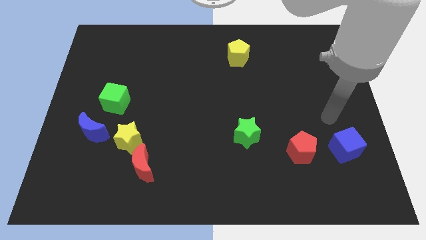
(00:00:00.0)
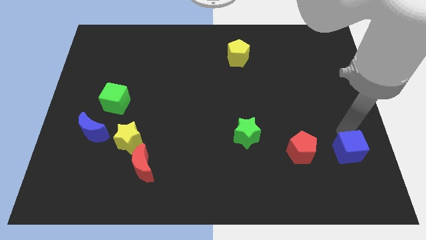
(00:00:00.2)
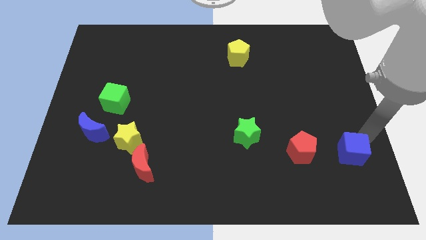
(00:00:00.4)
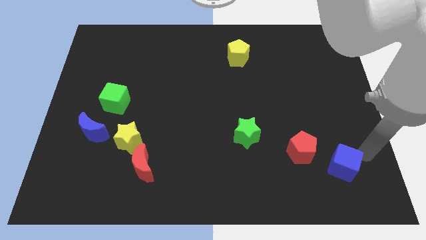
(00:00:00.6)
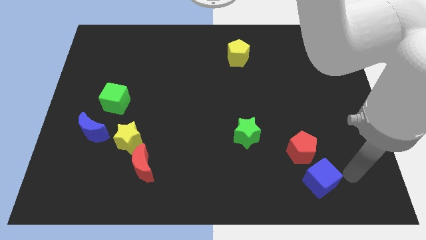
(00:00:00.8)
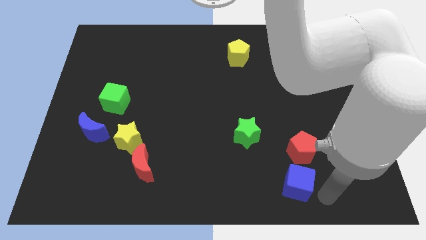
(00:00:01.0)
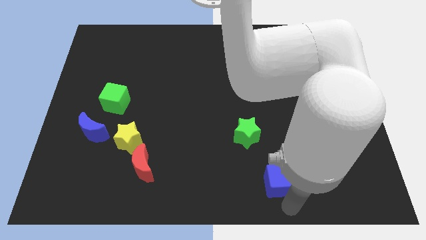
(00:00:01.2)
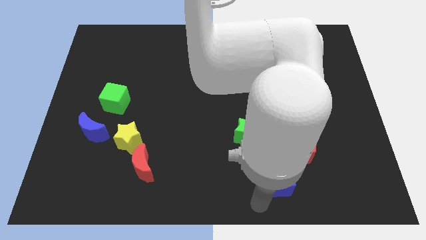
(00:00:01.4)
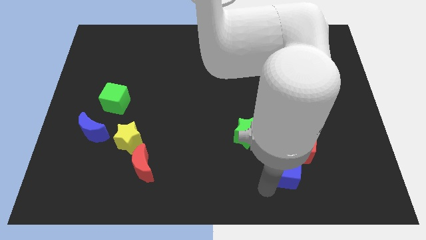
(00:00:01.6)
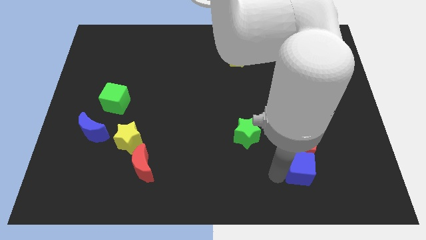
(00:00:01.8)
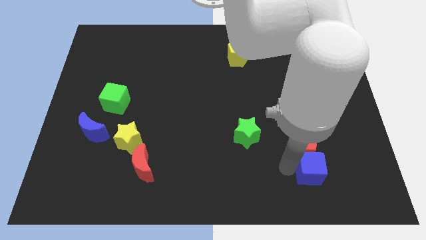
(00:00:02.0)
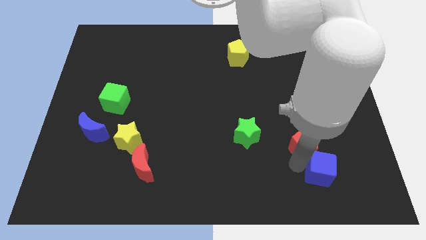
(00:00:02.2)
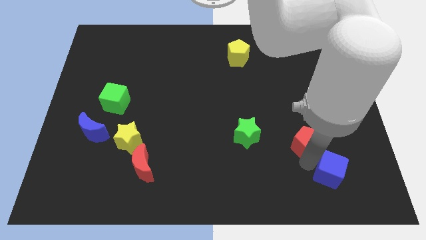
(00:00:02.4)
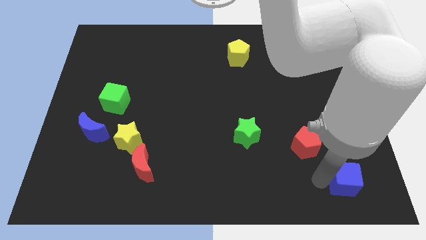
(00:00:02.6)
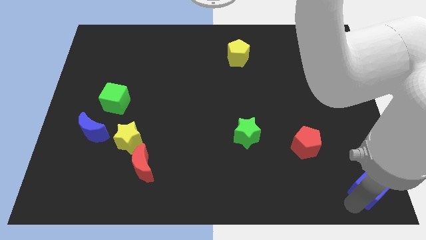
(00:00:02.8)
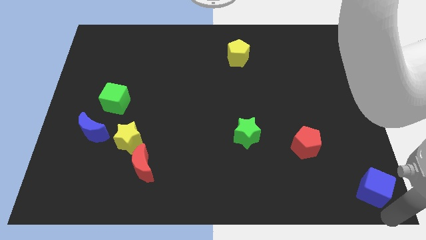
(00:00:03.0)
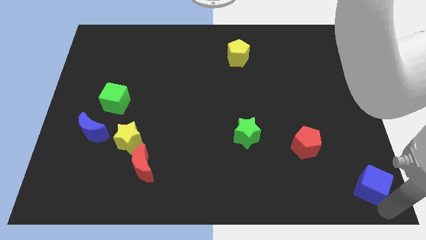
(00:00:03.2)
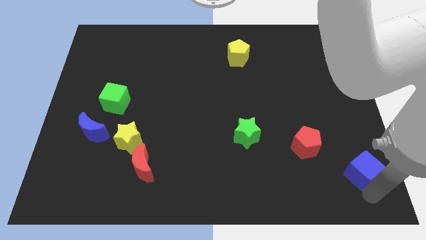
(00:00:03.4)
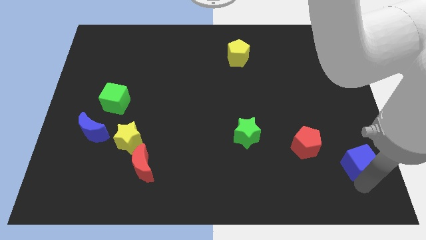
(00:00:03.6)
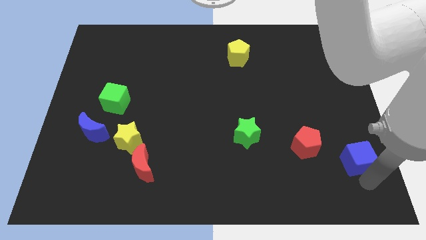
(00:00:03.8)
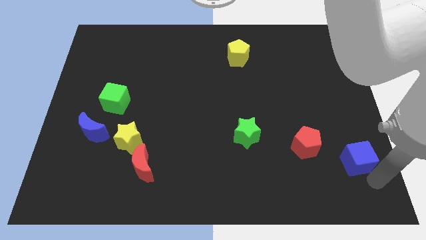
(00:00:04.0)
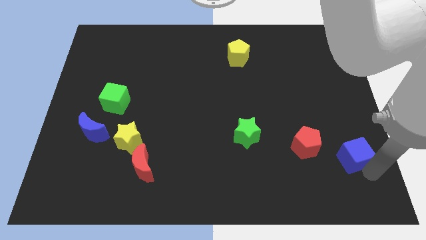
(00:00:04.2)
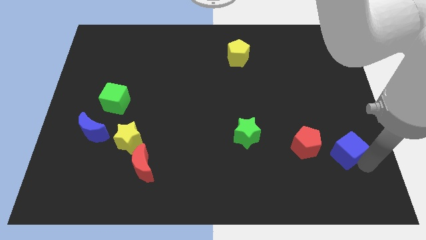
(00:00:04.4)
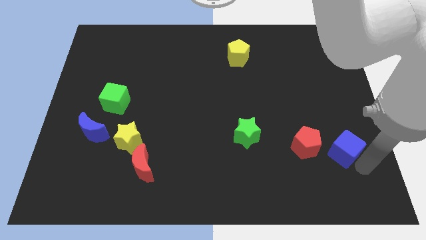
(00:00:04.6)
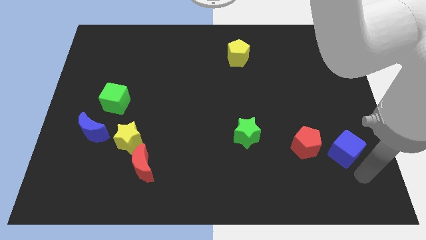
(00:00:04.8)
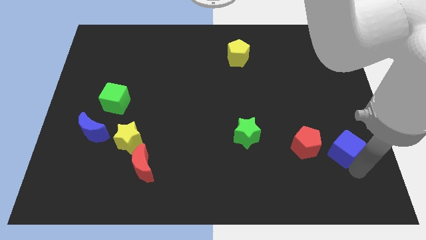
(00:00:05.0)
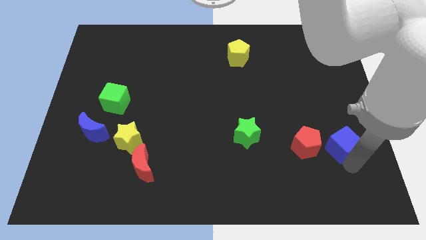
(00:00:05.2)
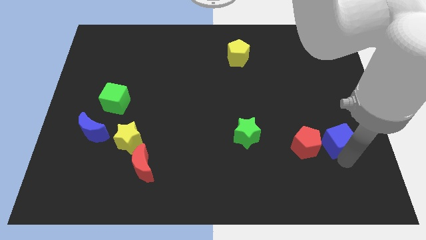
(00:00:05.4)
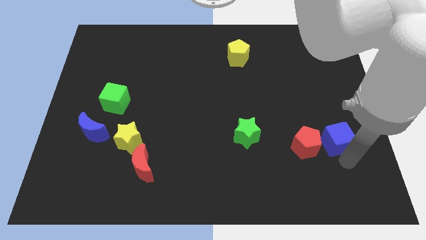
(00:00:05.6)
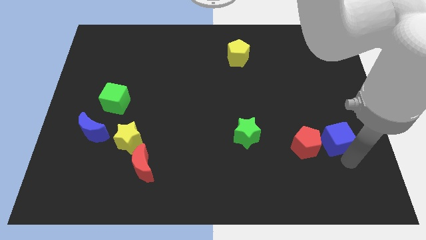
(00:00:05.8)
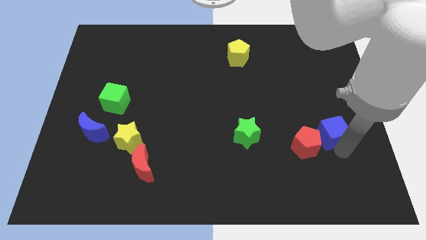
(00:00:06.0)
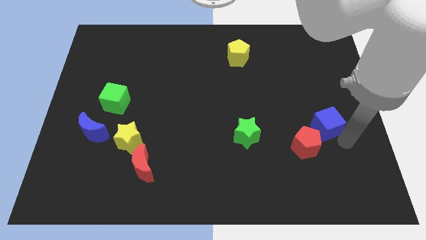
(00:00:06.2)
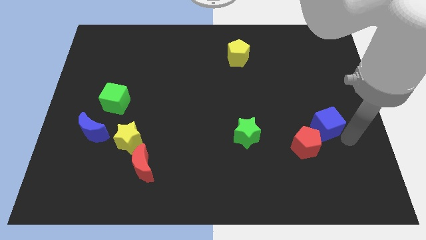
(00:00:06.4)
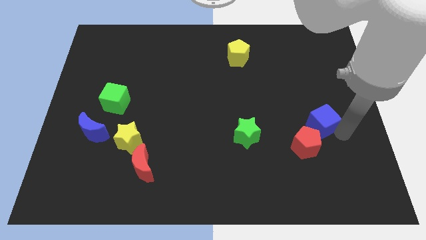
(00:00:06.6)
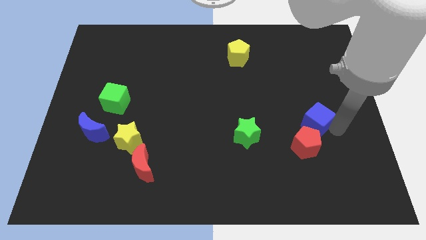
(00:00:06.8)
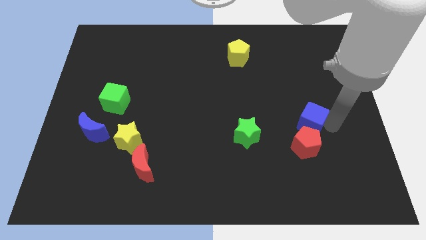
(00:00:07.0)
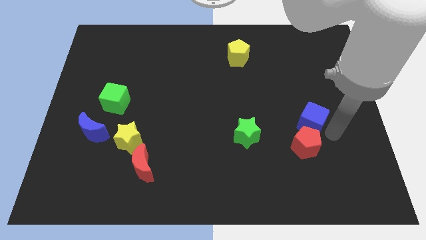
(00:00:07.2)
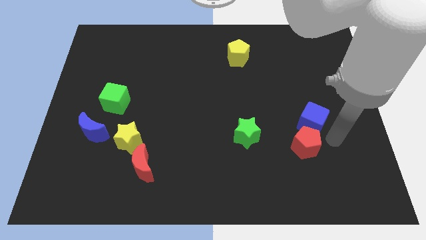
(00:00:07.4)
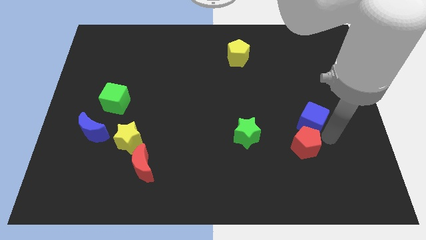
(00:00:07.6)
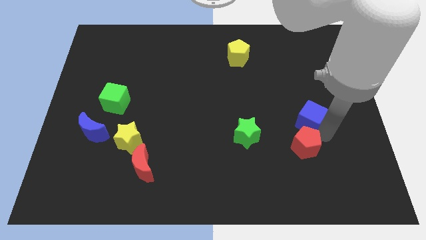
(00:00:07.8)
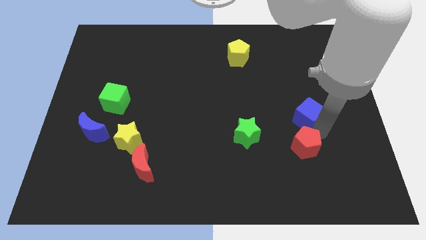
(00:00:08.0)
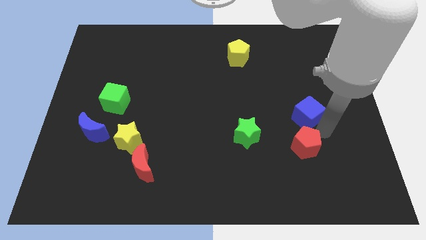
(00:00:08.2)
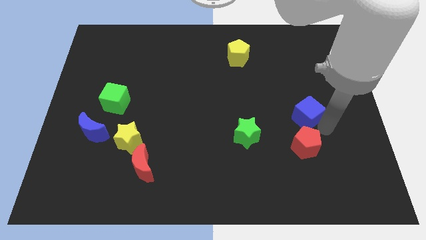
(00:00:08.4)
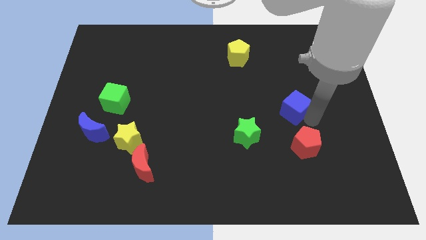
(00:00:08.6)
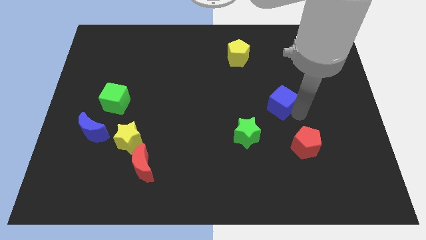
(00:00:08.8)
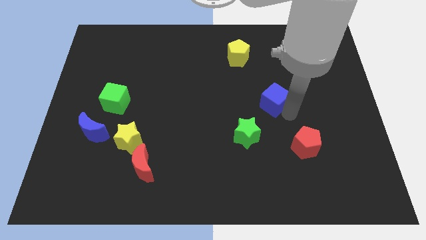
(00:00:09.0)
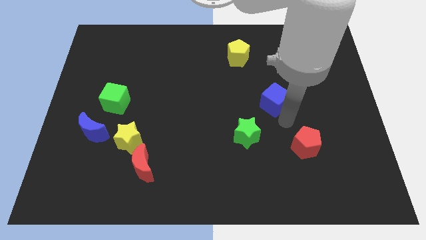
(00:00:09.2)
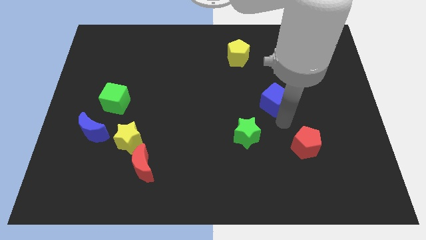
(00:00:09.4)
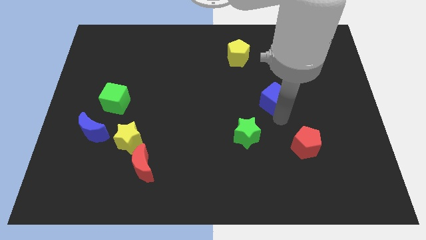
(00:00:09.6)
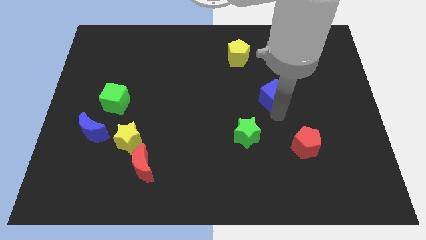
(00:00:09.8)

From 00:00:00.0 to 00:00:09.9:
slide the blue cube up and left diagonally

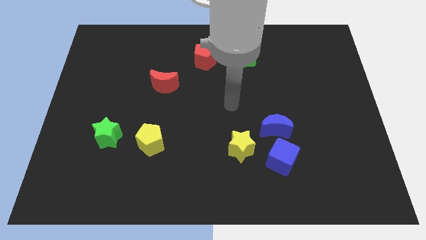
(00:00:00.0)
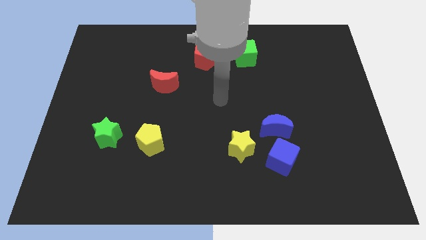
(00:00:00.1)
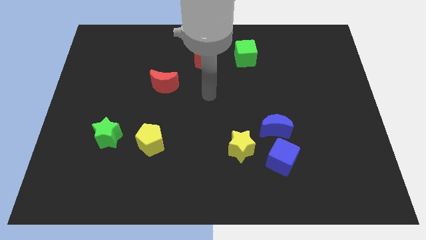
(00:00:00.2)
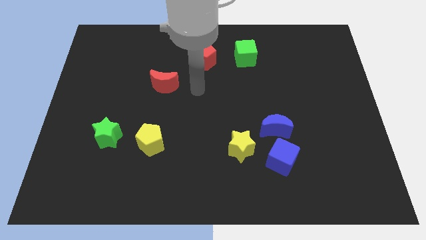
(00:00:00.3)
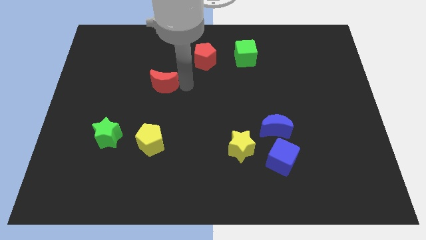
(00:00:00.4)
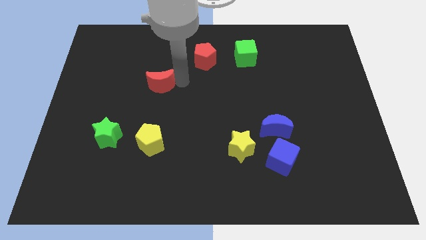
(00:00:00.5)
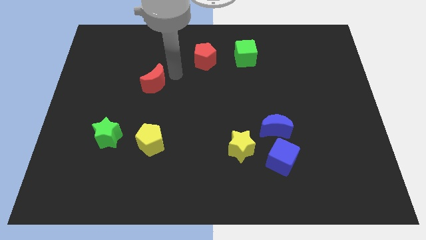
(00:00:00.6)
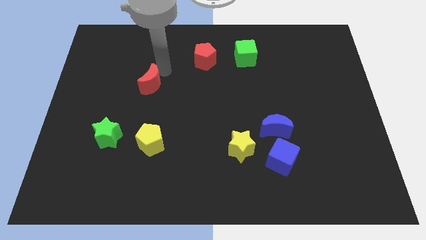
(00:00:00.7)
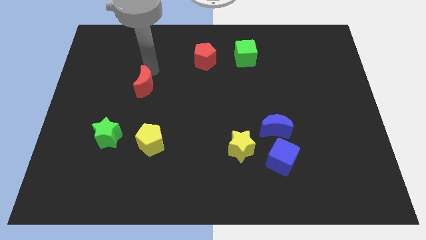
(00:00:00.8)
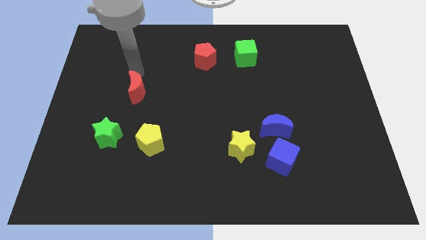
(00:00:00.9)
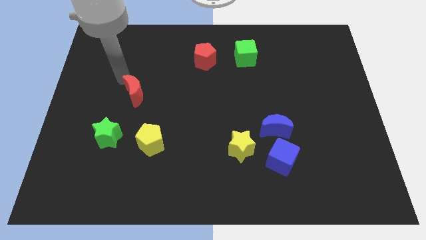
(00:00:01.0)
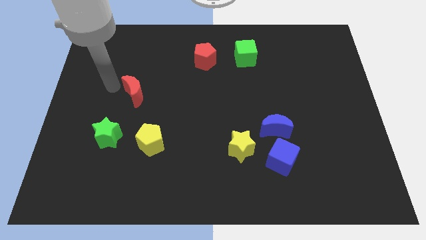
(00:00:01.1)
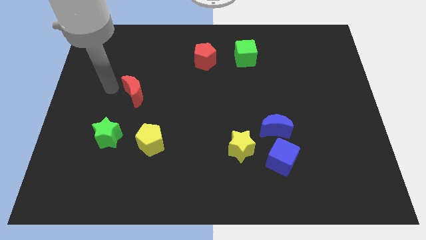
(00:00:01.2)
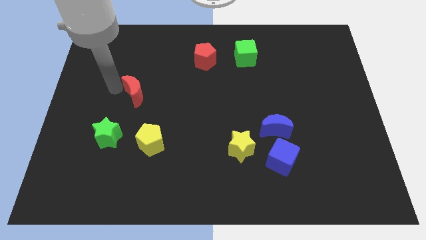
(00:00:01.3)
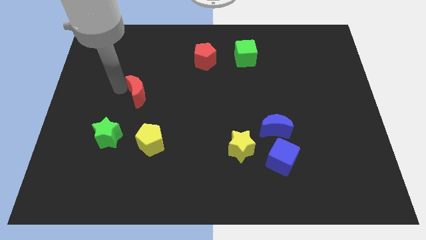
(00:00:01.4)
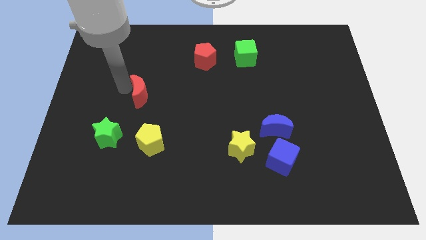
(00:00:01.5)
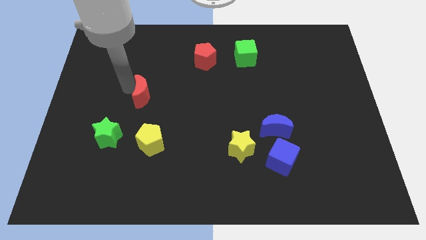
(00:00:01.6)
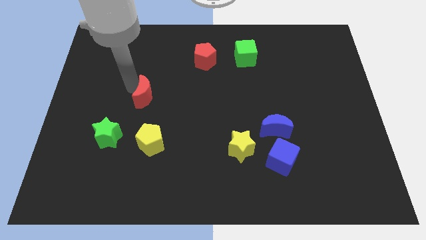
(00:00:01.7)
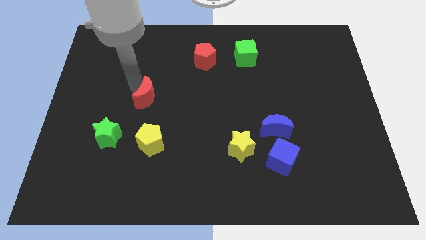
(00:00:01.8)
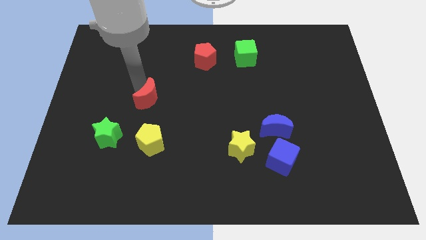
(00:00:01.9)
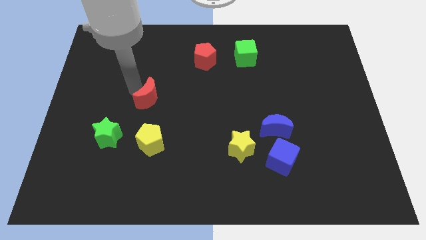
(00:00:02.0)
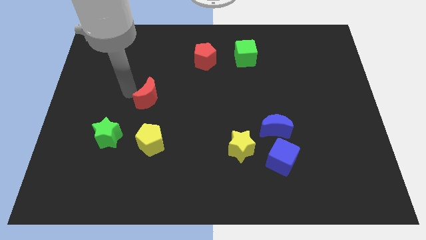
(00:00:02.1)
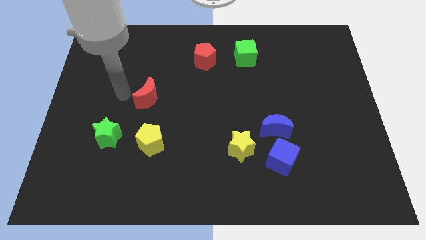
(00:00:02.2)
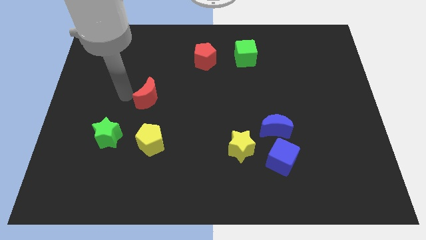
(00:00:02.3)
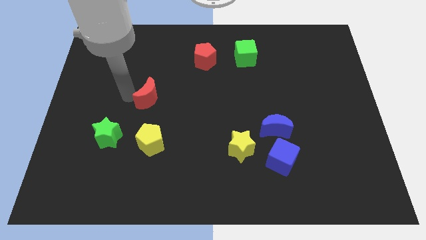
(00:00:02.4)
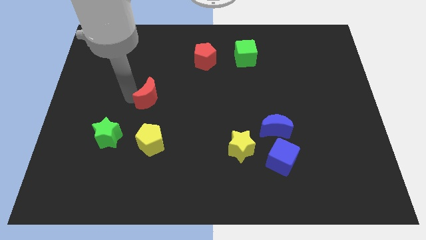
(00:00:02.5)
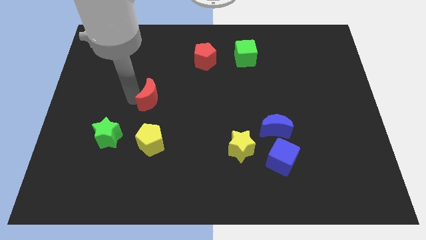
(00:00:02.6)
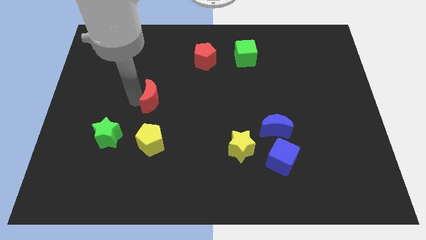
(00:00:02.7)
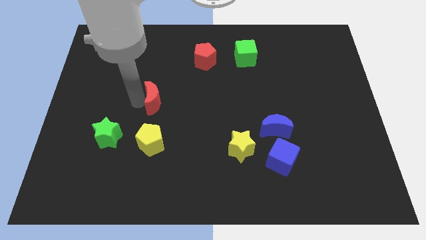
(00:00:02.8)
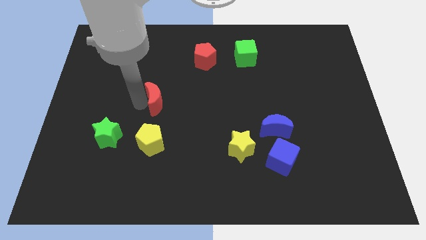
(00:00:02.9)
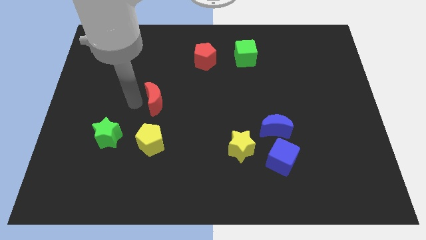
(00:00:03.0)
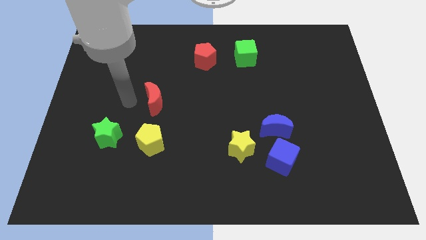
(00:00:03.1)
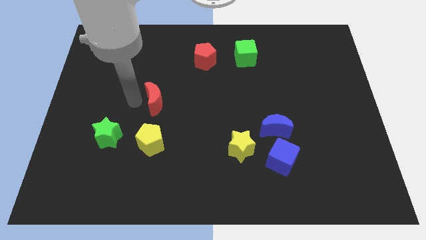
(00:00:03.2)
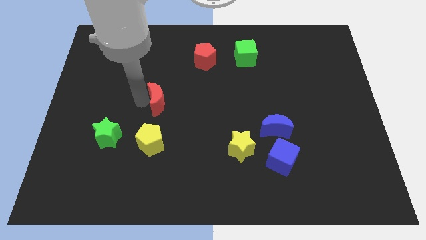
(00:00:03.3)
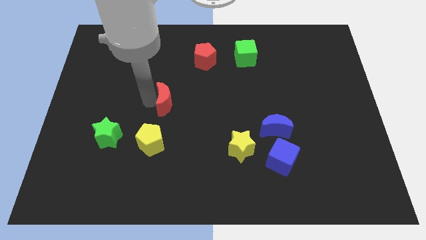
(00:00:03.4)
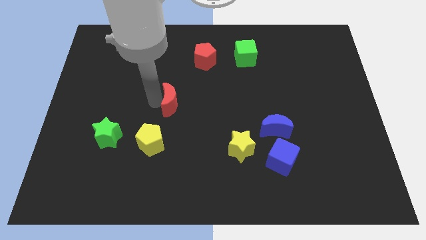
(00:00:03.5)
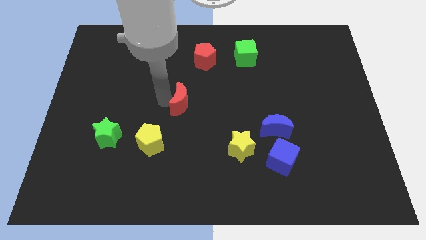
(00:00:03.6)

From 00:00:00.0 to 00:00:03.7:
slightly slide the red moon down and then to the right
